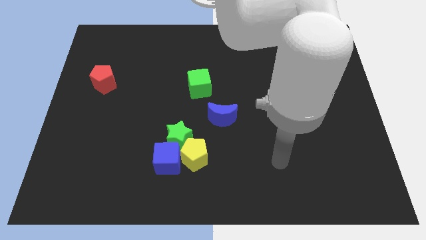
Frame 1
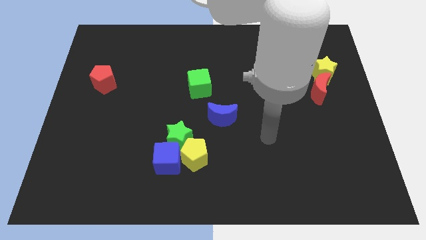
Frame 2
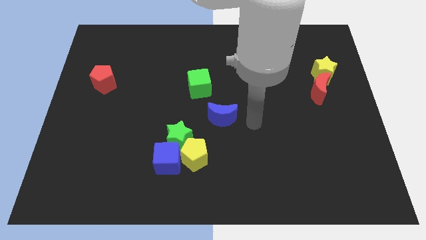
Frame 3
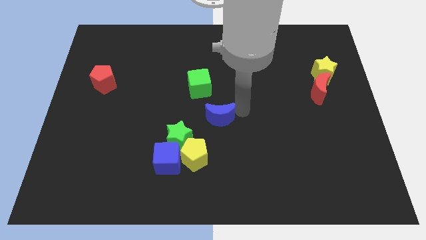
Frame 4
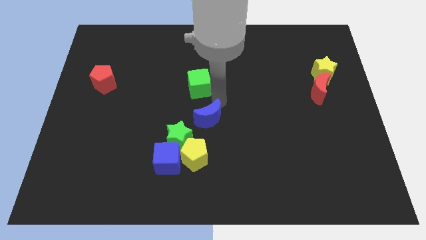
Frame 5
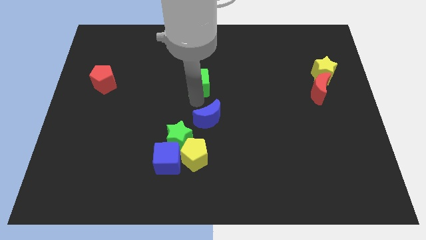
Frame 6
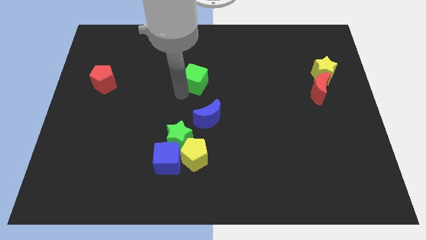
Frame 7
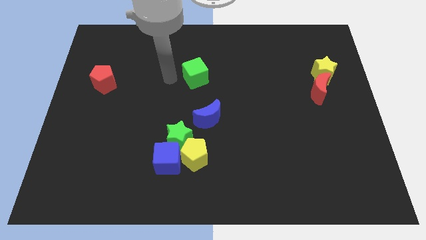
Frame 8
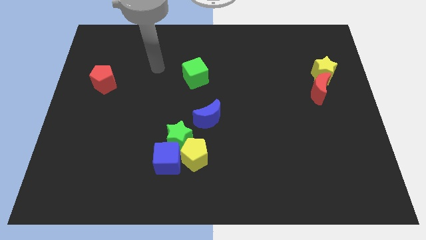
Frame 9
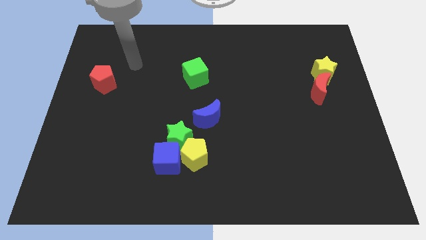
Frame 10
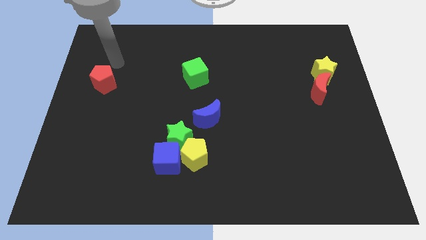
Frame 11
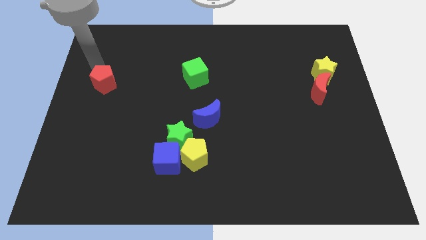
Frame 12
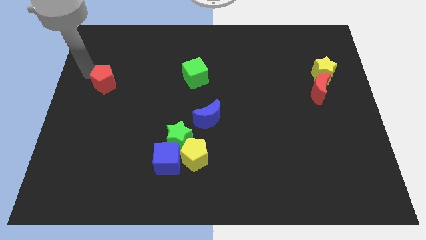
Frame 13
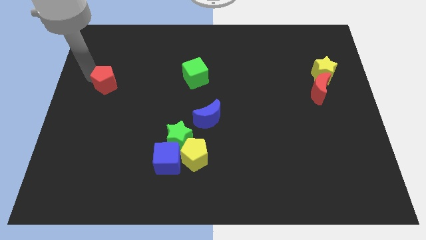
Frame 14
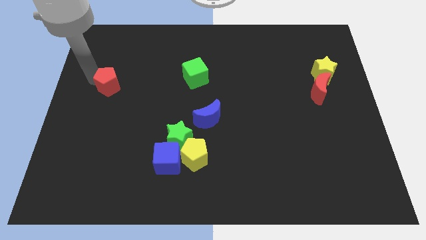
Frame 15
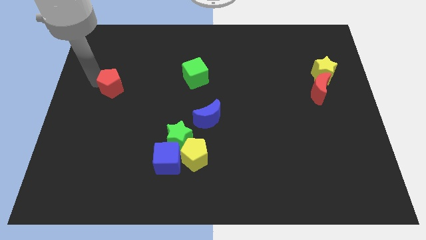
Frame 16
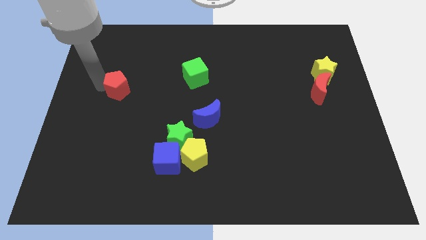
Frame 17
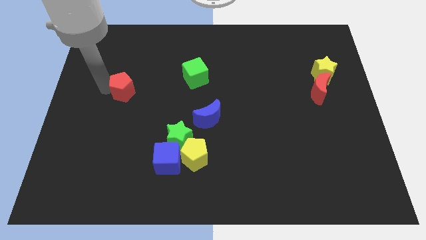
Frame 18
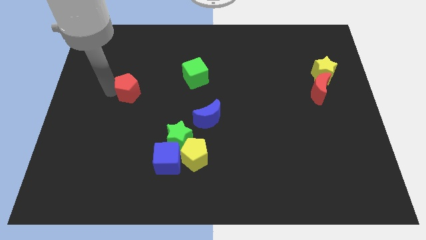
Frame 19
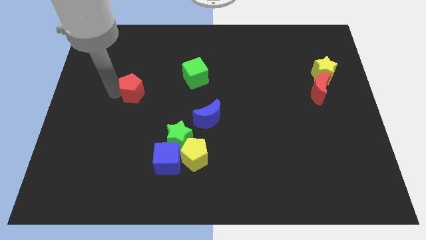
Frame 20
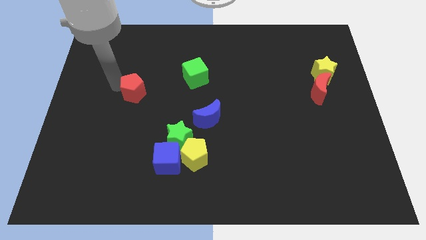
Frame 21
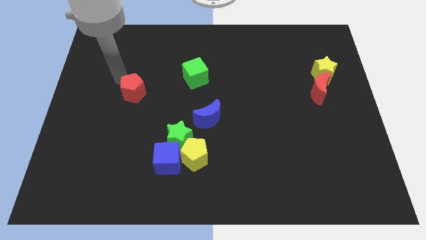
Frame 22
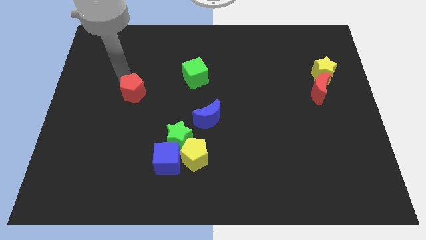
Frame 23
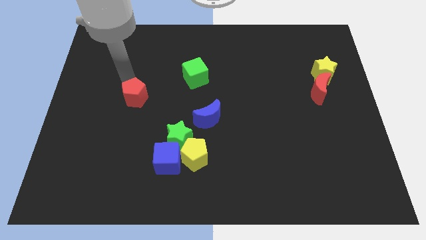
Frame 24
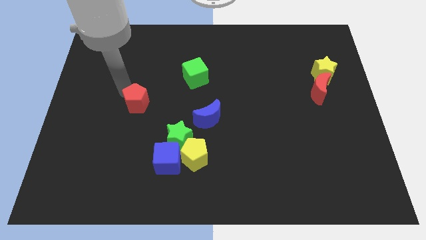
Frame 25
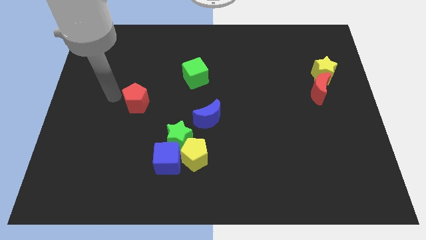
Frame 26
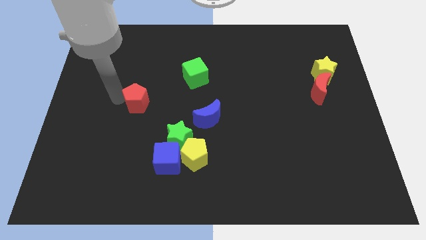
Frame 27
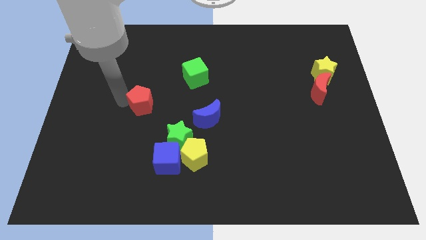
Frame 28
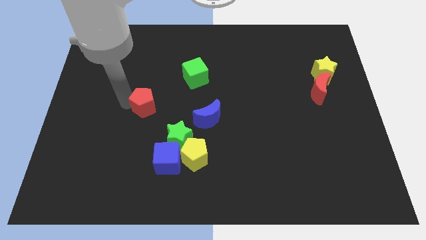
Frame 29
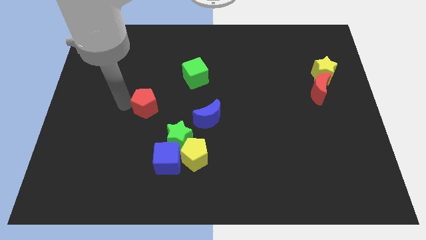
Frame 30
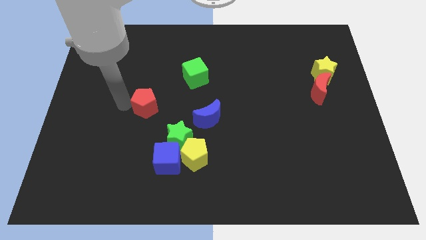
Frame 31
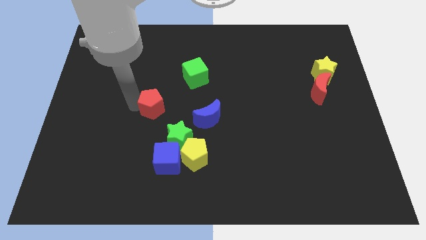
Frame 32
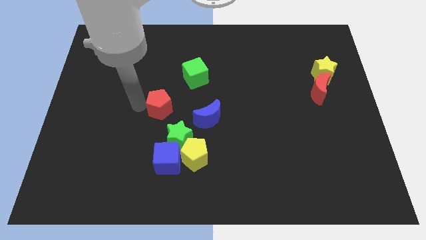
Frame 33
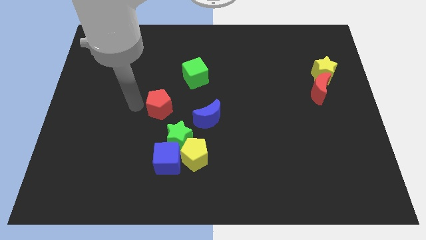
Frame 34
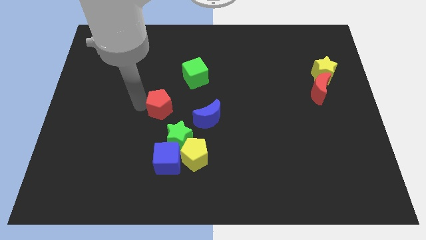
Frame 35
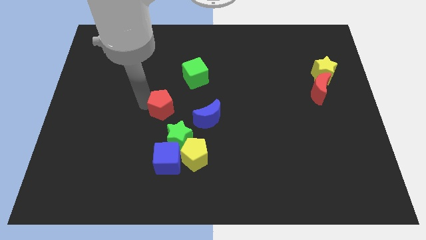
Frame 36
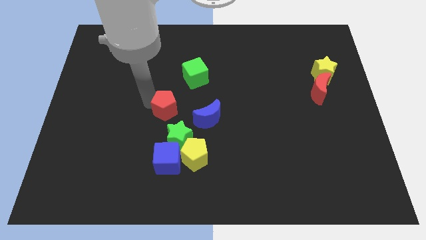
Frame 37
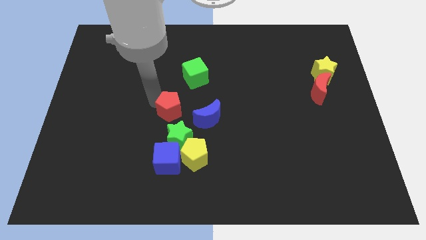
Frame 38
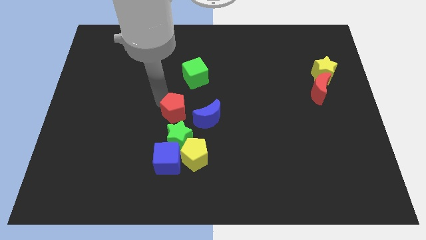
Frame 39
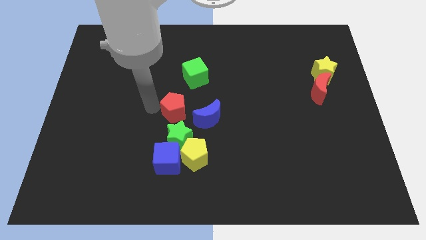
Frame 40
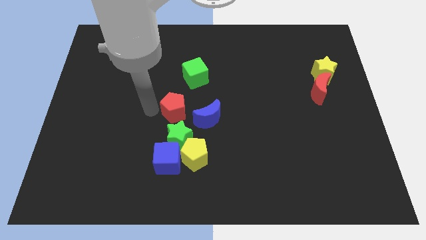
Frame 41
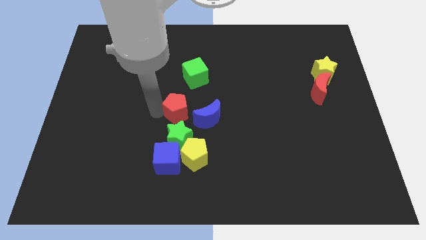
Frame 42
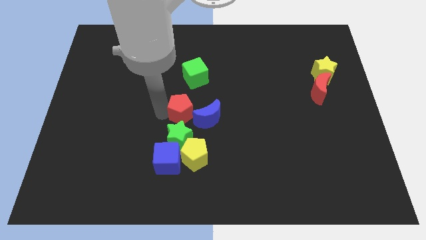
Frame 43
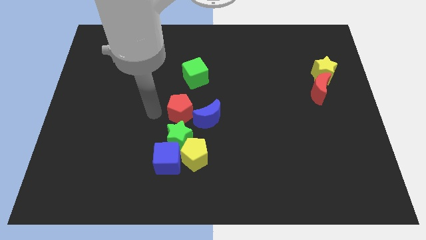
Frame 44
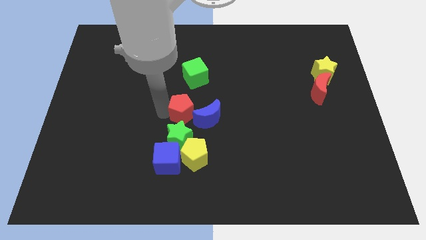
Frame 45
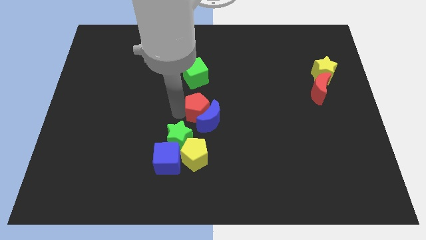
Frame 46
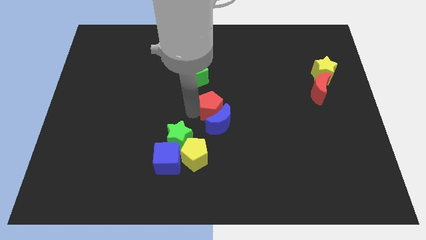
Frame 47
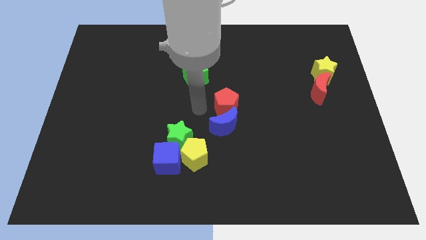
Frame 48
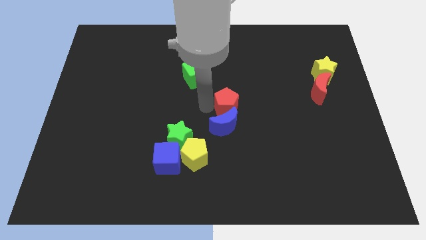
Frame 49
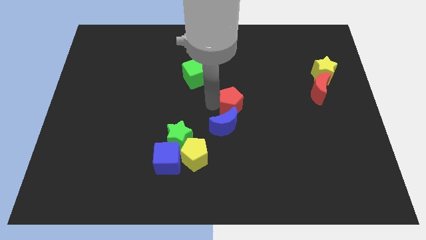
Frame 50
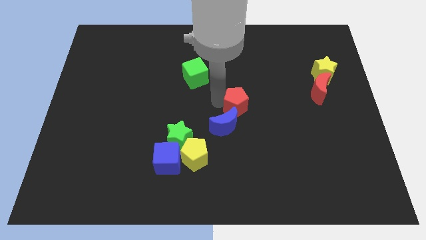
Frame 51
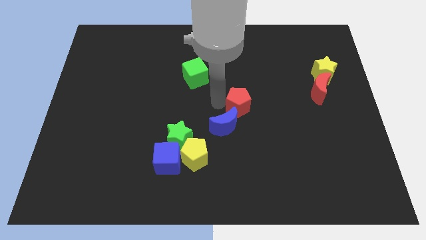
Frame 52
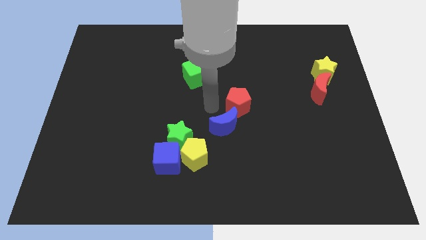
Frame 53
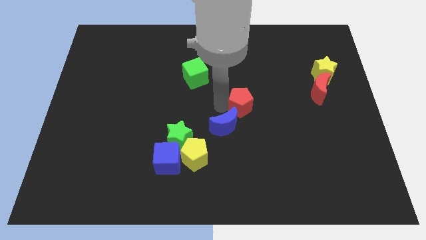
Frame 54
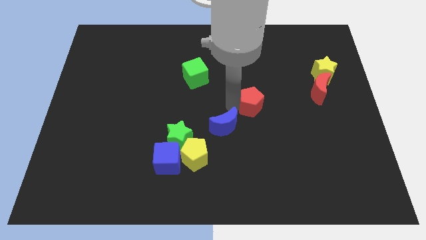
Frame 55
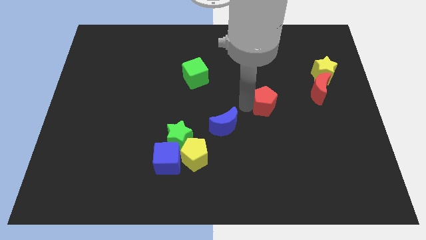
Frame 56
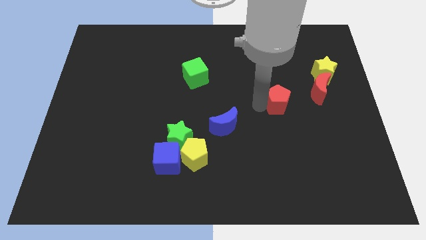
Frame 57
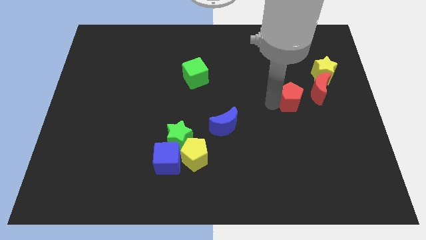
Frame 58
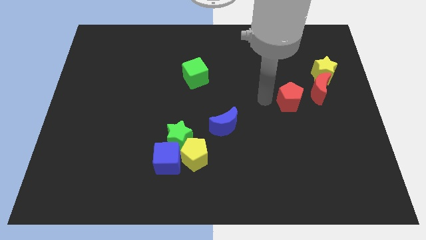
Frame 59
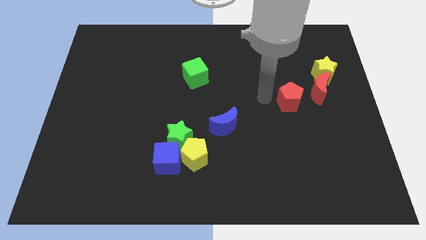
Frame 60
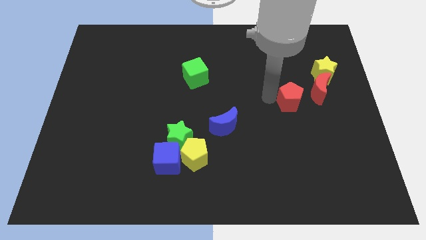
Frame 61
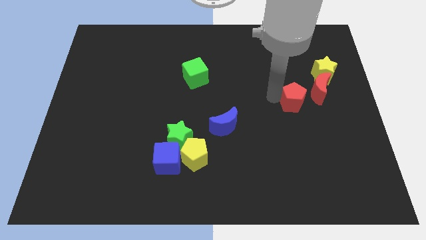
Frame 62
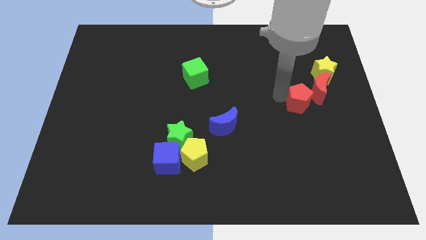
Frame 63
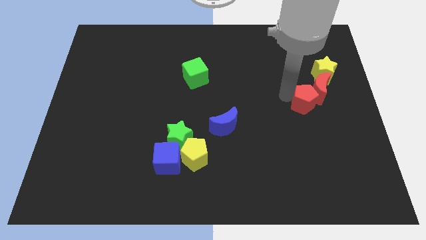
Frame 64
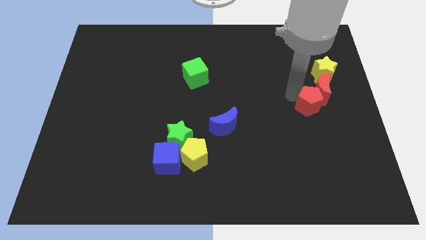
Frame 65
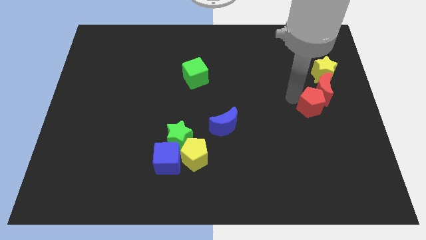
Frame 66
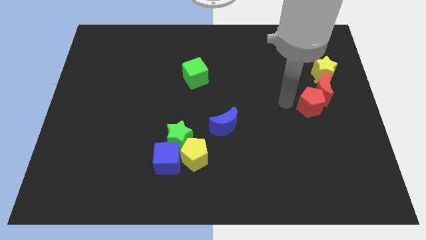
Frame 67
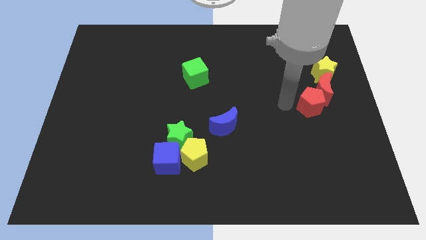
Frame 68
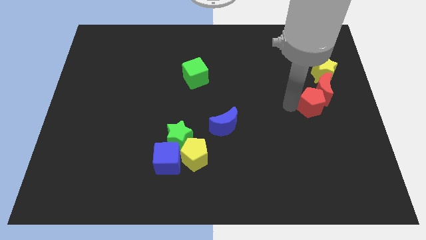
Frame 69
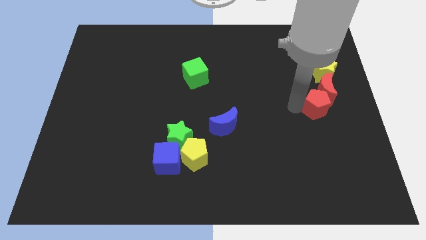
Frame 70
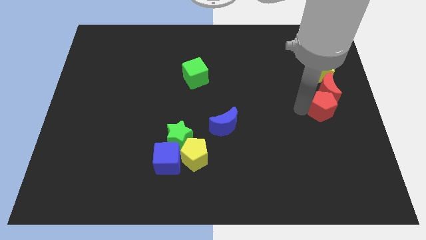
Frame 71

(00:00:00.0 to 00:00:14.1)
move the red pentagon to the right side
